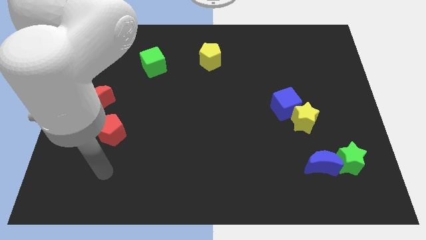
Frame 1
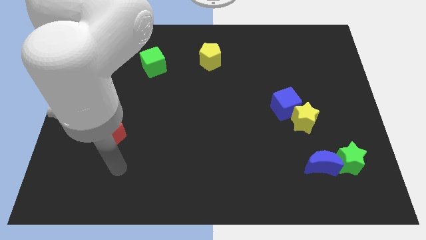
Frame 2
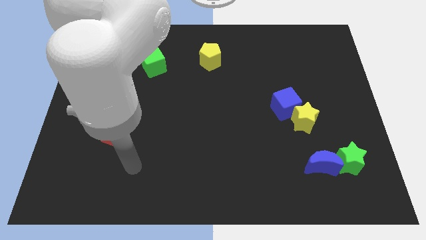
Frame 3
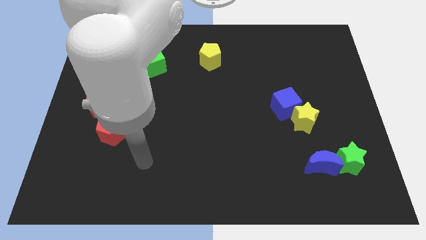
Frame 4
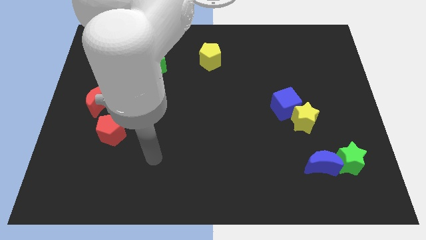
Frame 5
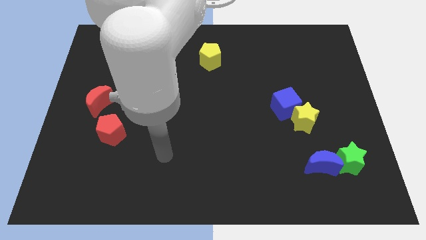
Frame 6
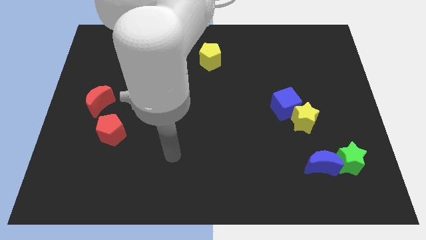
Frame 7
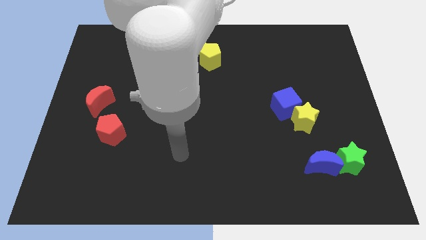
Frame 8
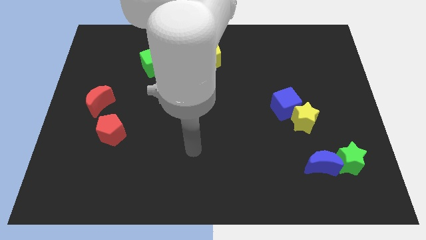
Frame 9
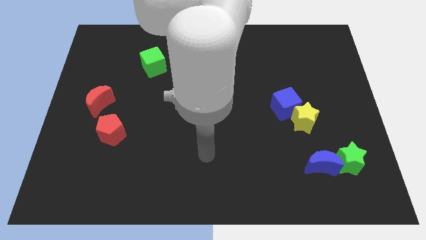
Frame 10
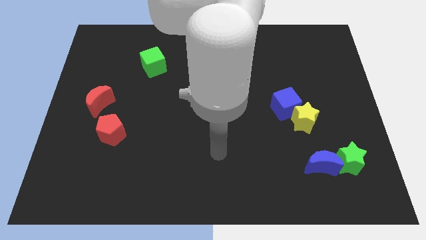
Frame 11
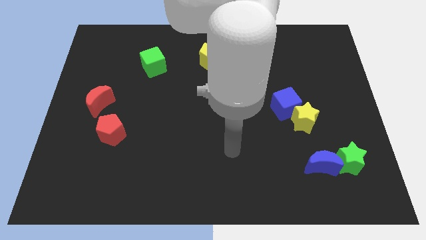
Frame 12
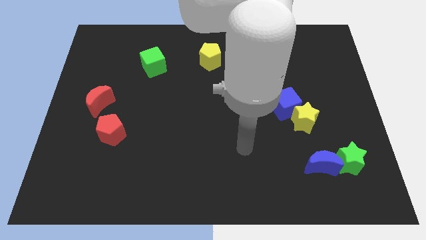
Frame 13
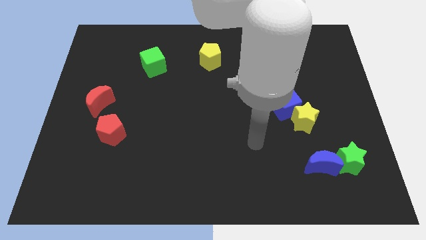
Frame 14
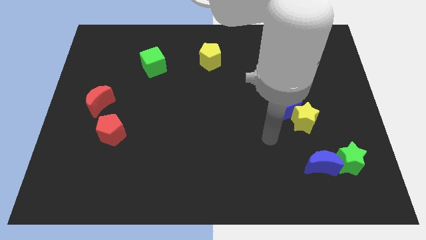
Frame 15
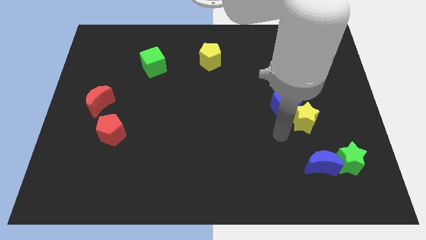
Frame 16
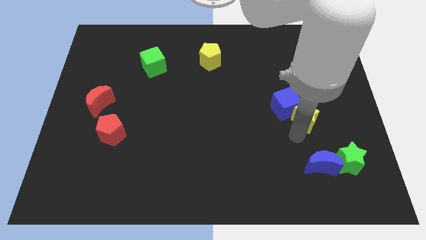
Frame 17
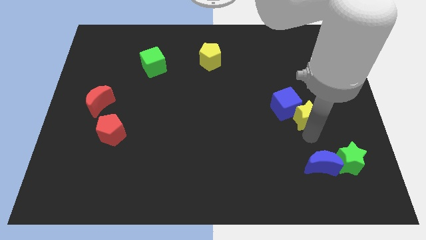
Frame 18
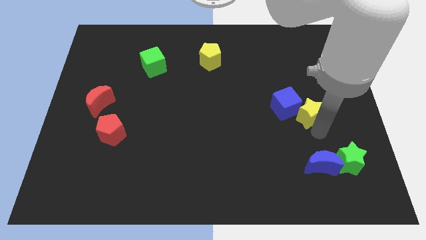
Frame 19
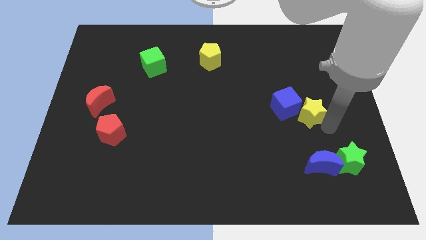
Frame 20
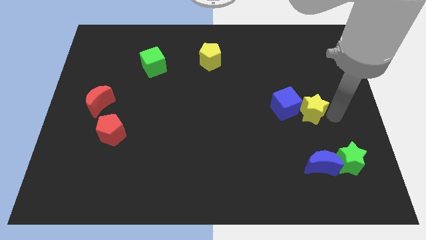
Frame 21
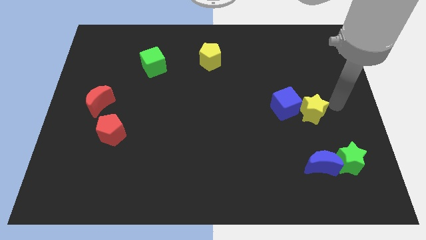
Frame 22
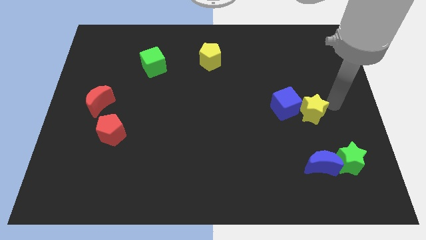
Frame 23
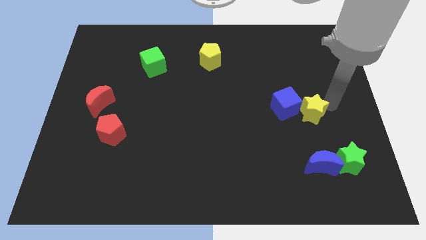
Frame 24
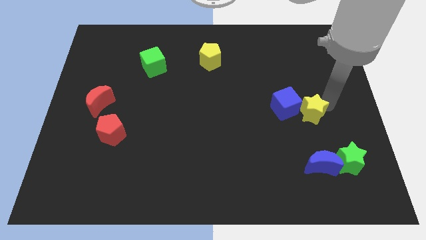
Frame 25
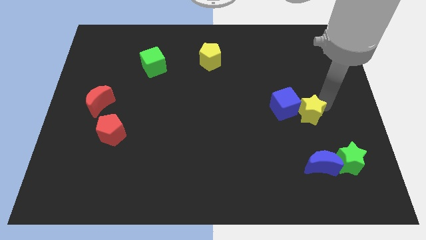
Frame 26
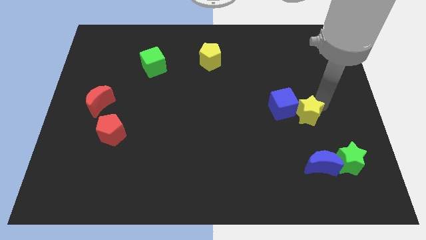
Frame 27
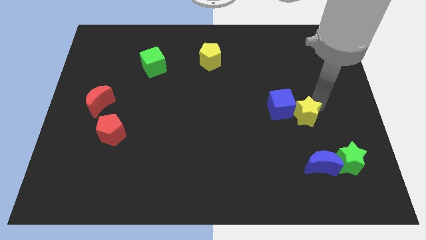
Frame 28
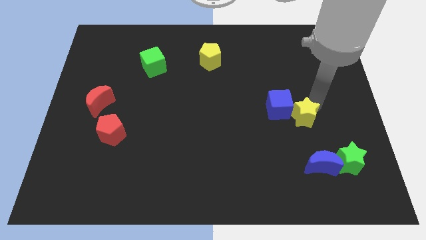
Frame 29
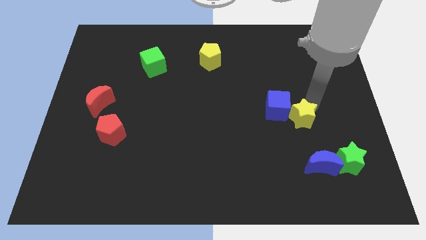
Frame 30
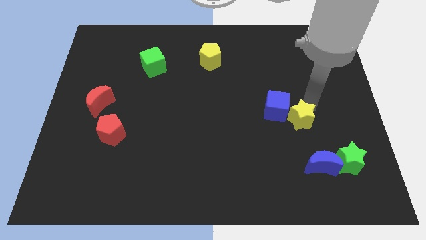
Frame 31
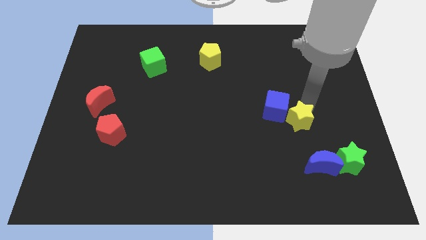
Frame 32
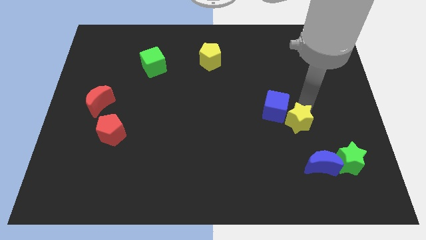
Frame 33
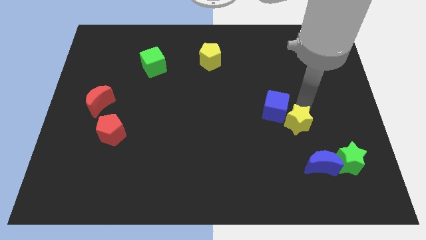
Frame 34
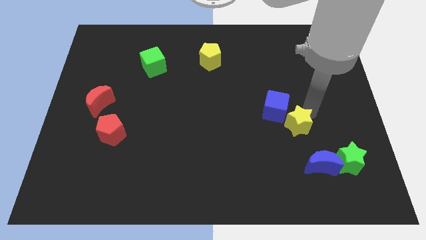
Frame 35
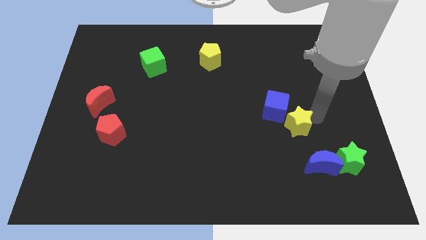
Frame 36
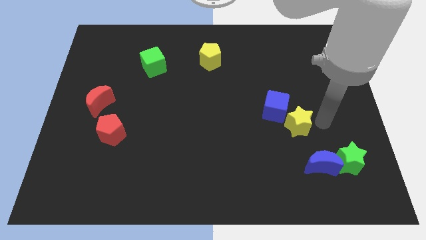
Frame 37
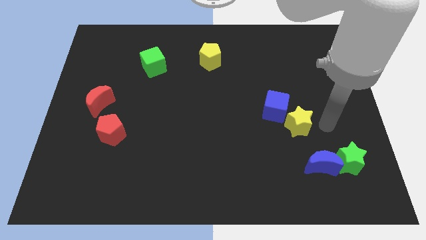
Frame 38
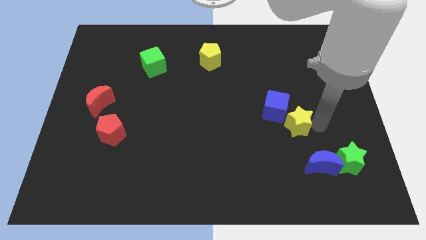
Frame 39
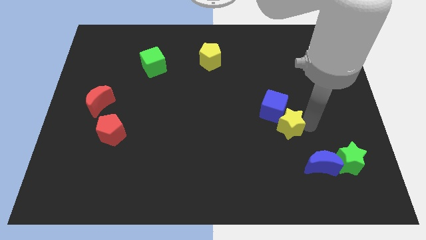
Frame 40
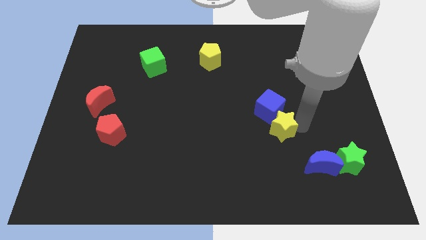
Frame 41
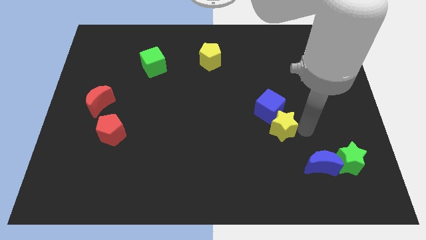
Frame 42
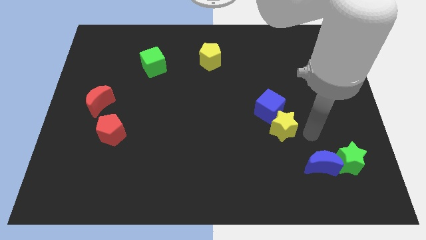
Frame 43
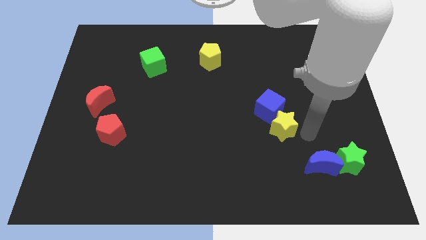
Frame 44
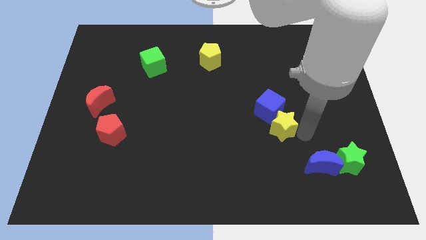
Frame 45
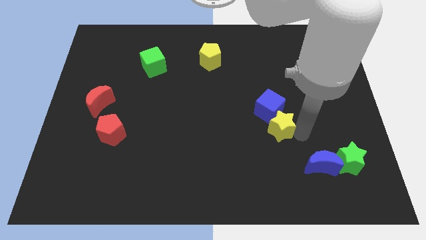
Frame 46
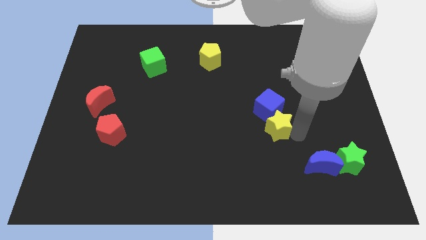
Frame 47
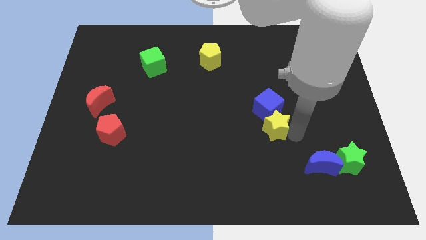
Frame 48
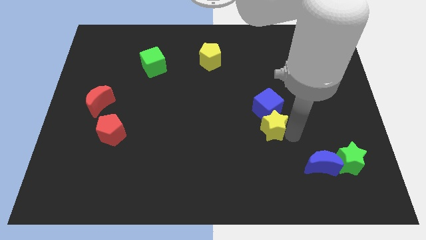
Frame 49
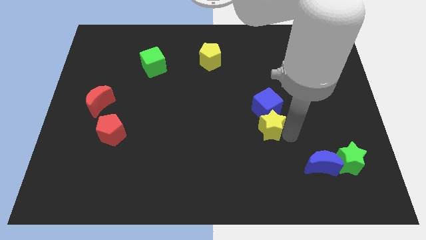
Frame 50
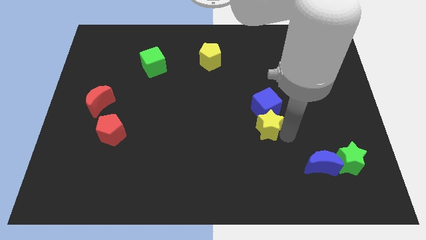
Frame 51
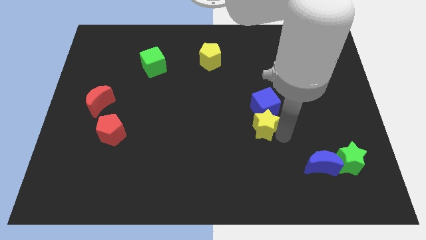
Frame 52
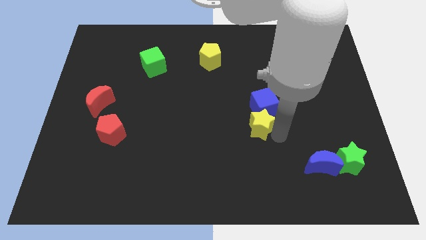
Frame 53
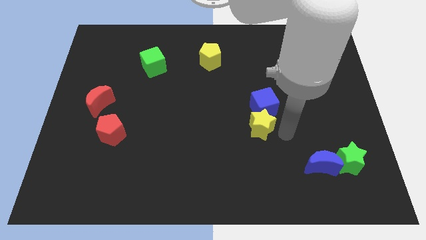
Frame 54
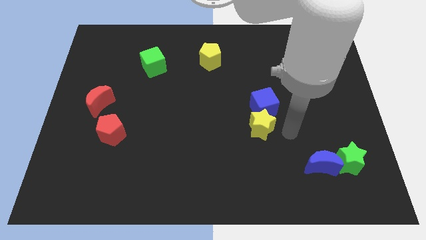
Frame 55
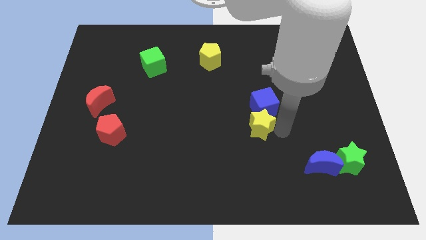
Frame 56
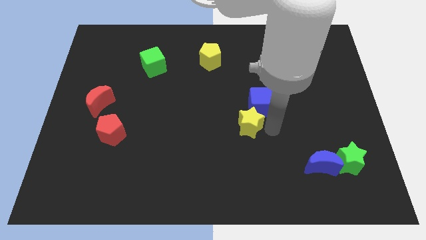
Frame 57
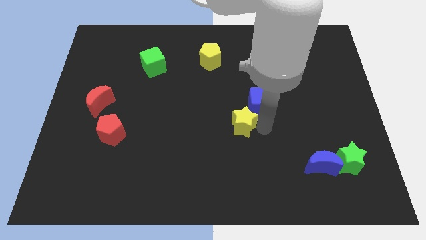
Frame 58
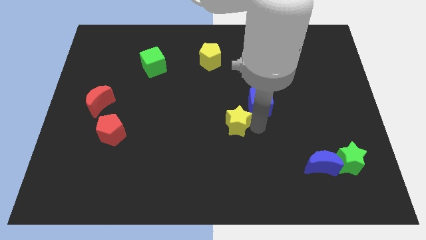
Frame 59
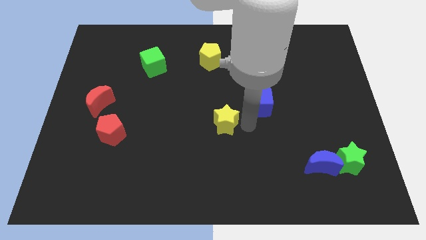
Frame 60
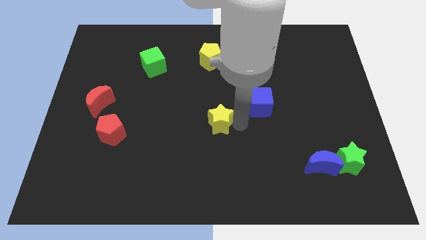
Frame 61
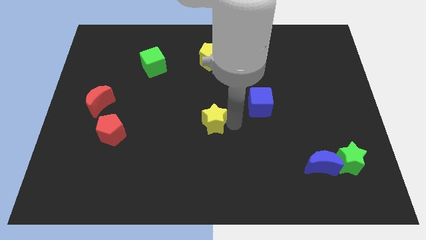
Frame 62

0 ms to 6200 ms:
move the yellow star left

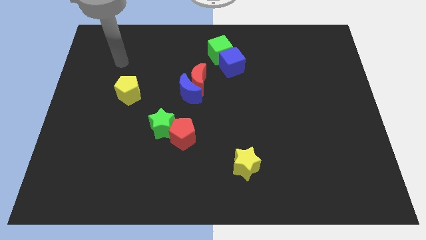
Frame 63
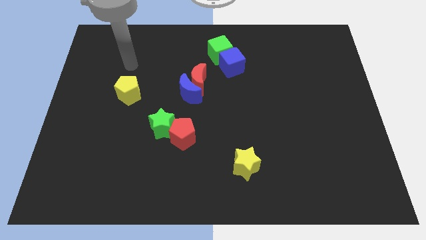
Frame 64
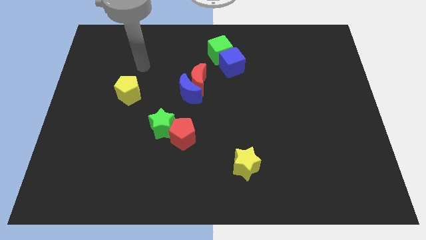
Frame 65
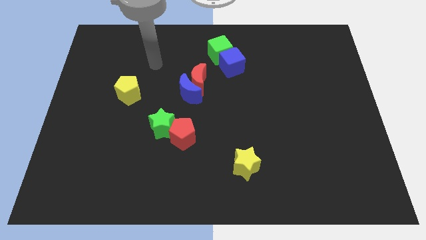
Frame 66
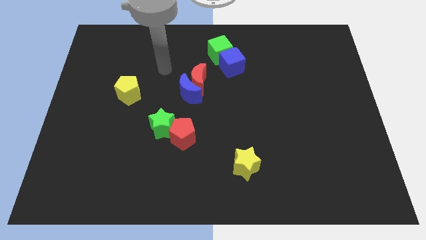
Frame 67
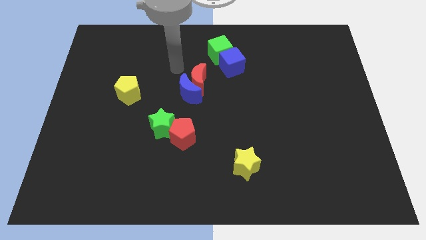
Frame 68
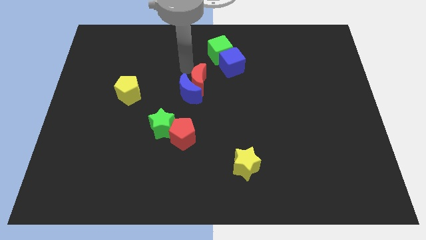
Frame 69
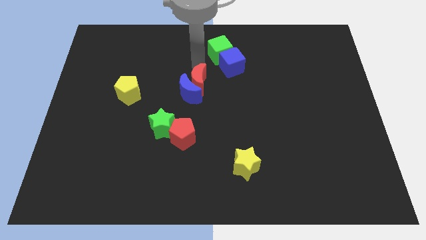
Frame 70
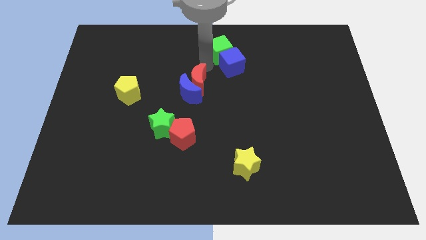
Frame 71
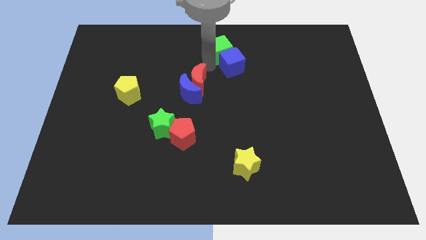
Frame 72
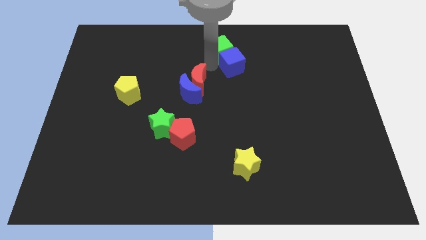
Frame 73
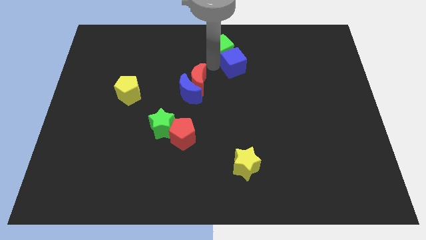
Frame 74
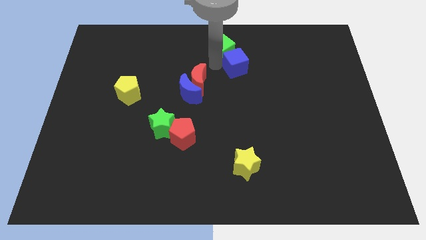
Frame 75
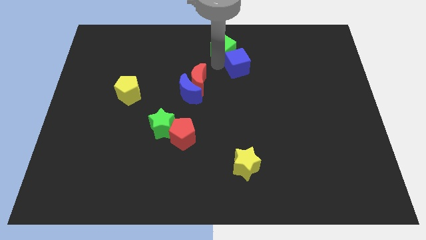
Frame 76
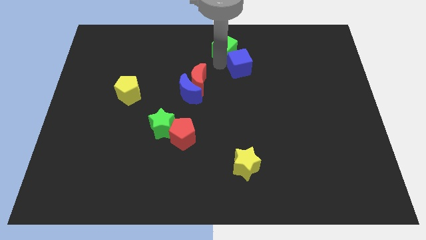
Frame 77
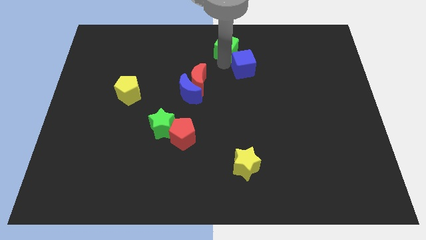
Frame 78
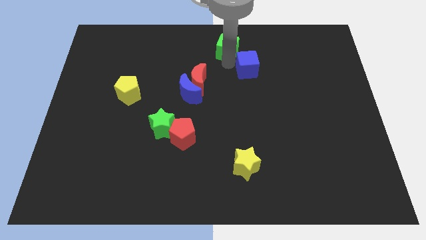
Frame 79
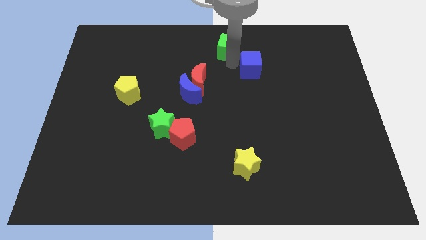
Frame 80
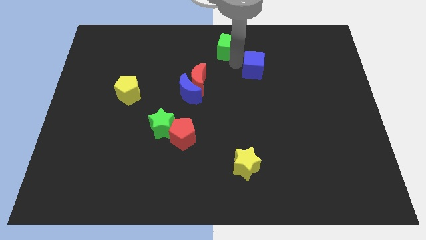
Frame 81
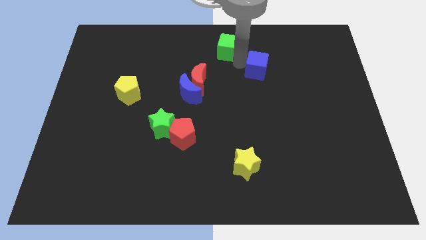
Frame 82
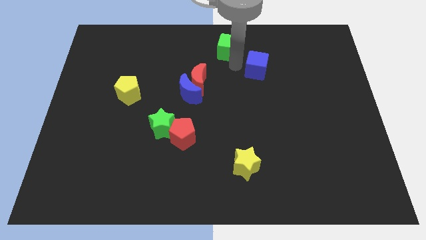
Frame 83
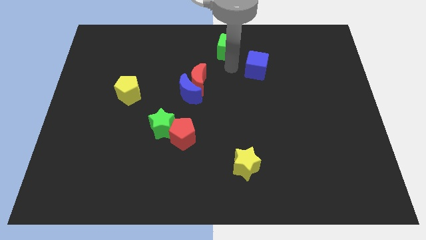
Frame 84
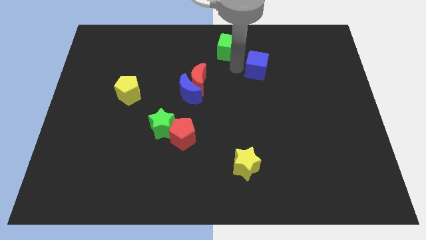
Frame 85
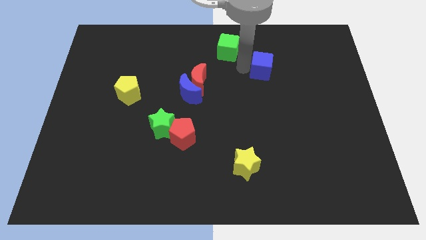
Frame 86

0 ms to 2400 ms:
slightly slide the blue cube right
